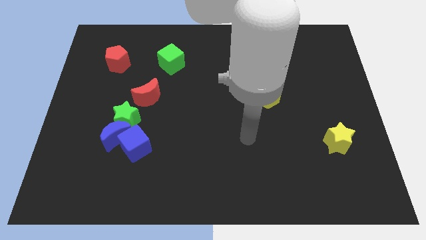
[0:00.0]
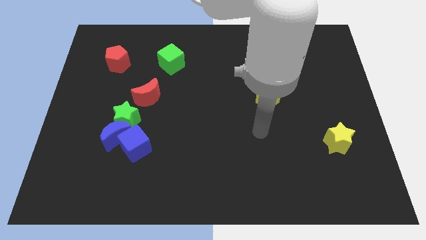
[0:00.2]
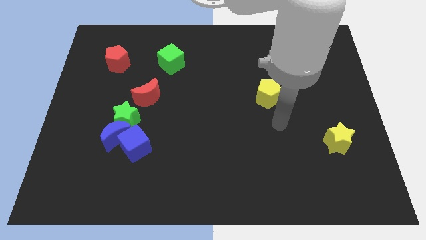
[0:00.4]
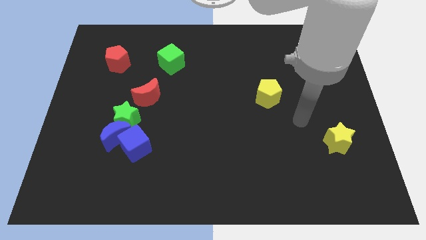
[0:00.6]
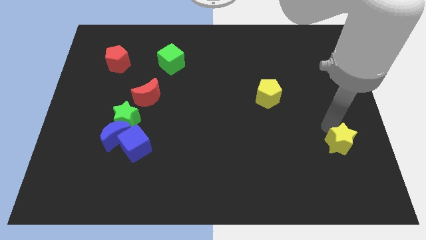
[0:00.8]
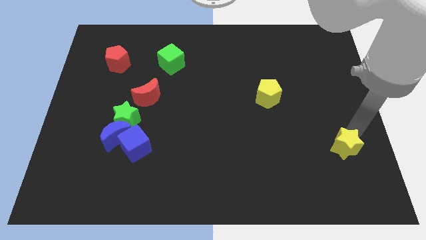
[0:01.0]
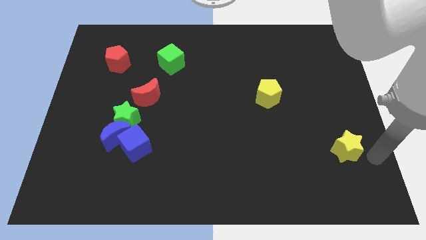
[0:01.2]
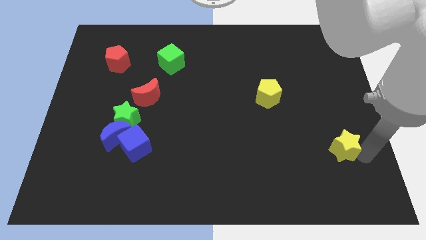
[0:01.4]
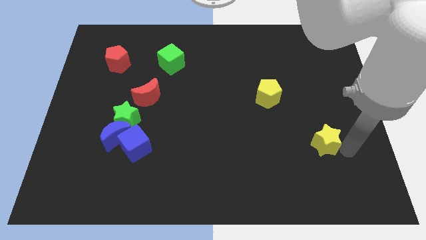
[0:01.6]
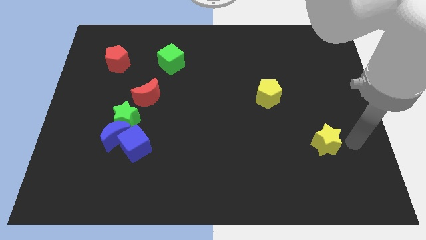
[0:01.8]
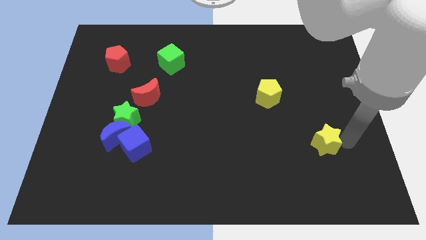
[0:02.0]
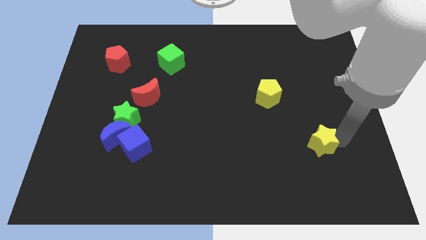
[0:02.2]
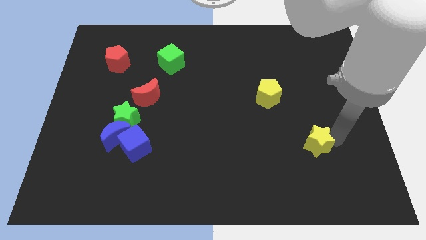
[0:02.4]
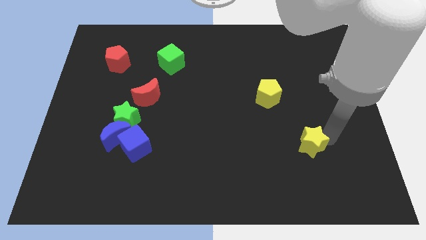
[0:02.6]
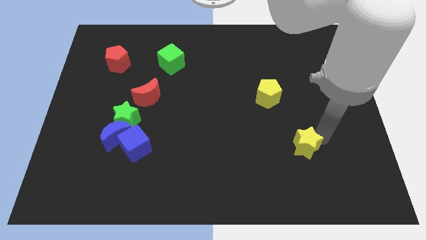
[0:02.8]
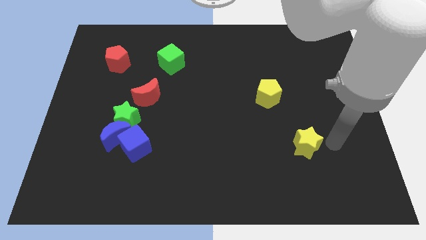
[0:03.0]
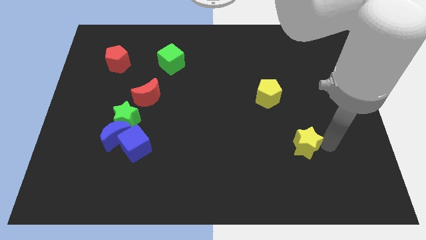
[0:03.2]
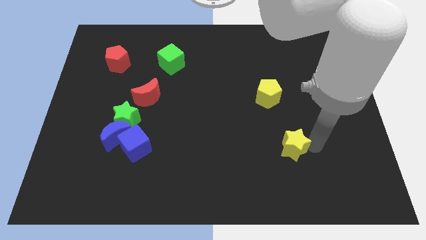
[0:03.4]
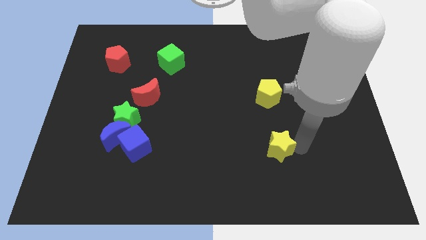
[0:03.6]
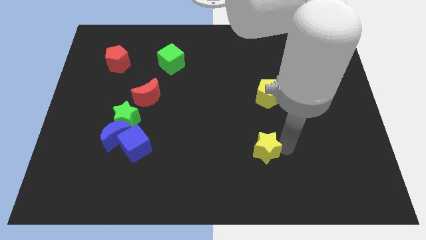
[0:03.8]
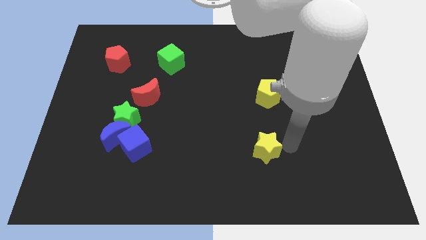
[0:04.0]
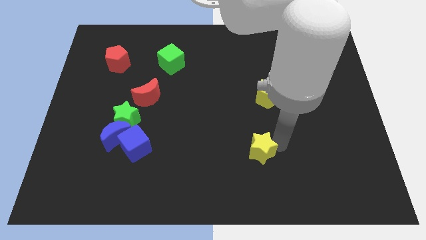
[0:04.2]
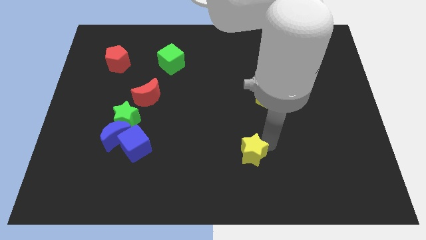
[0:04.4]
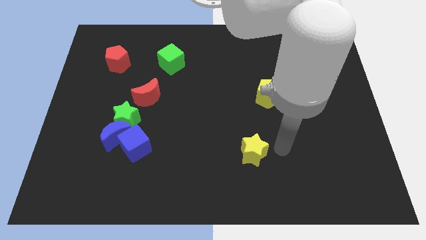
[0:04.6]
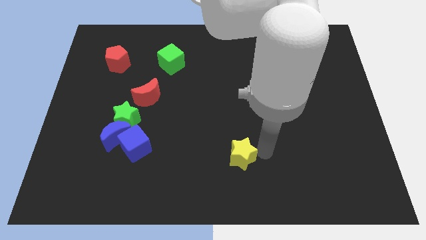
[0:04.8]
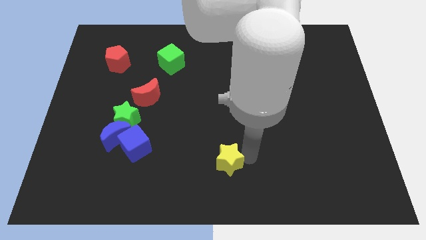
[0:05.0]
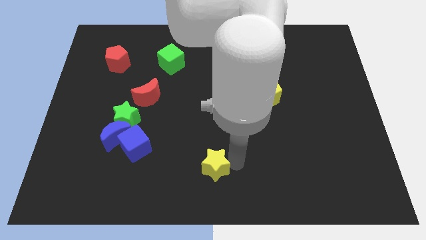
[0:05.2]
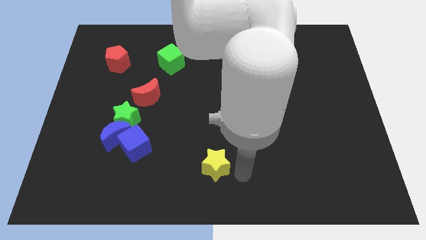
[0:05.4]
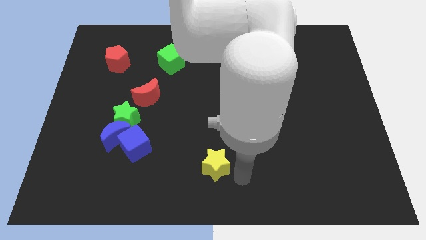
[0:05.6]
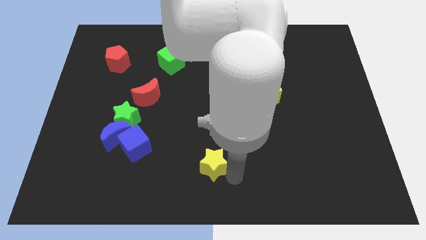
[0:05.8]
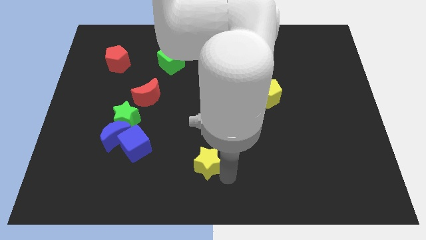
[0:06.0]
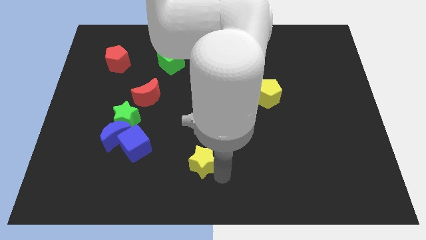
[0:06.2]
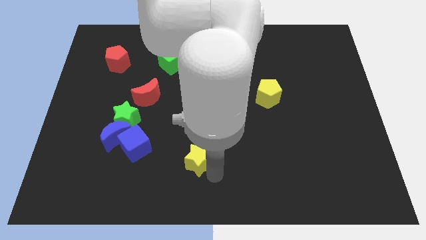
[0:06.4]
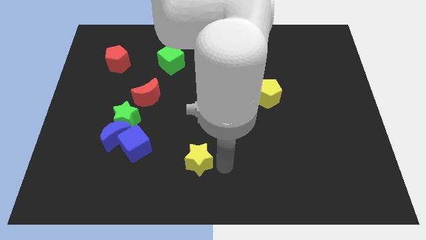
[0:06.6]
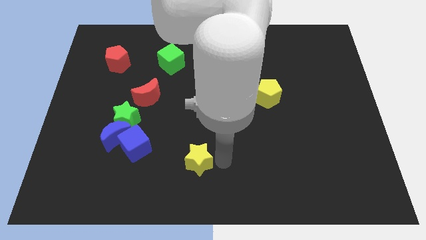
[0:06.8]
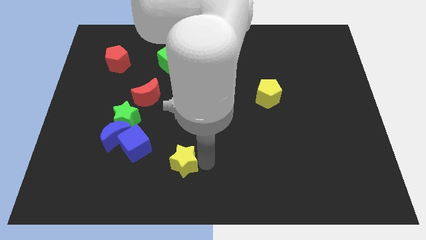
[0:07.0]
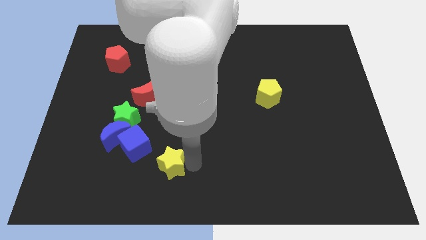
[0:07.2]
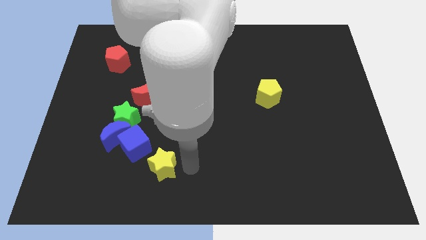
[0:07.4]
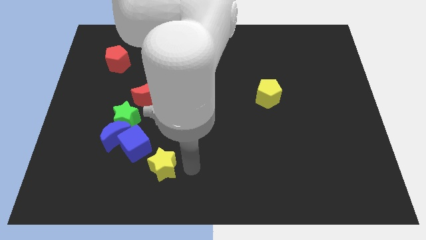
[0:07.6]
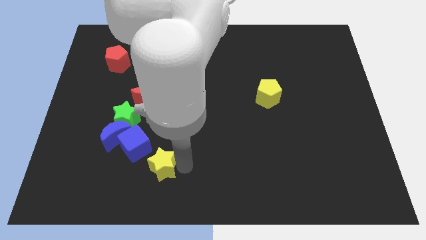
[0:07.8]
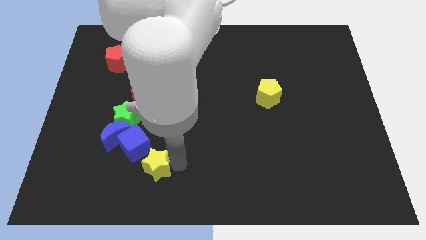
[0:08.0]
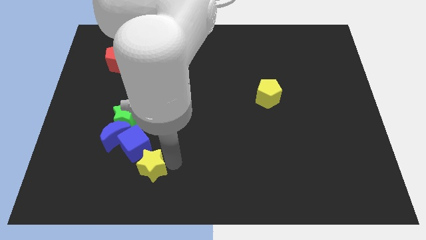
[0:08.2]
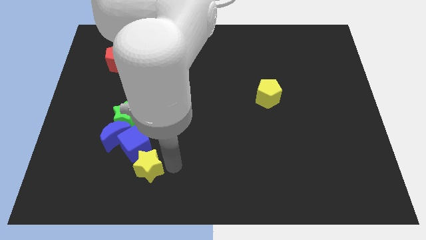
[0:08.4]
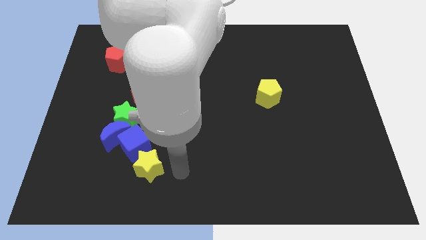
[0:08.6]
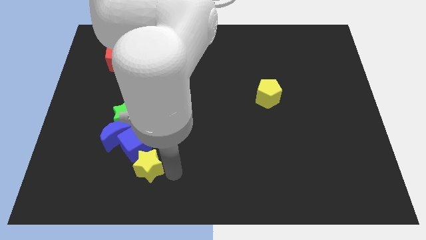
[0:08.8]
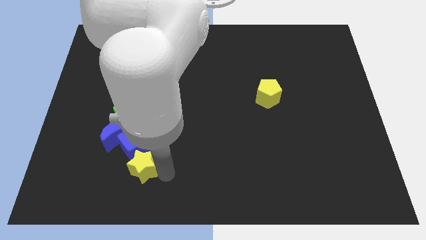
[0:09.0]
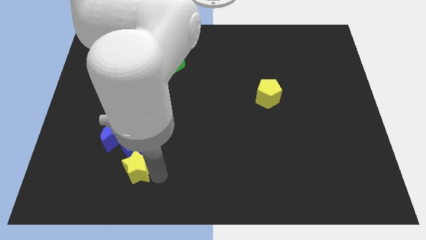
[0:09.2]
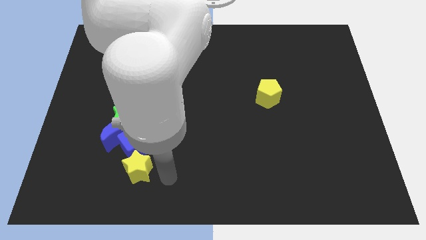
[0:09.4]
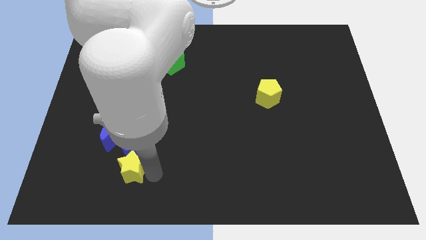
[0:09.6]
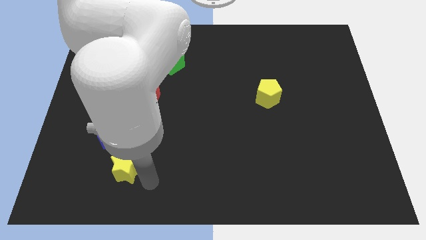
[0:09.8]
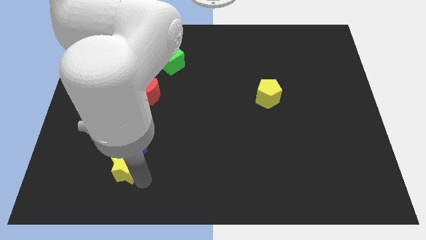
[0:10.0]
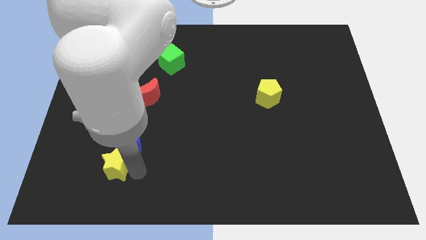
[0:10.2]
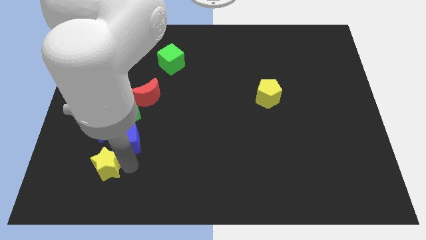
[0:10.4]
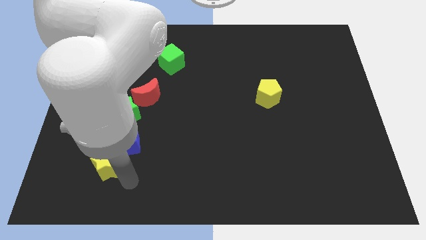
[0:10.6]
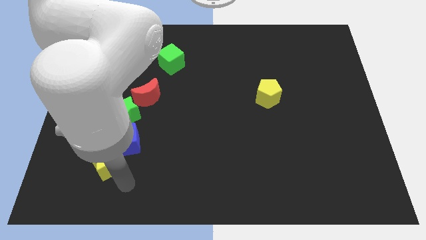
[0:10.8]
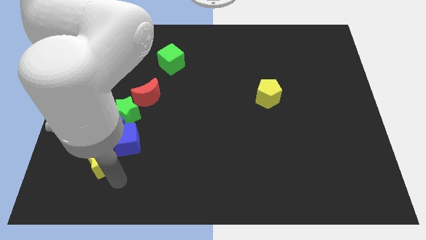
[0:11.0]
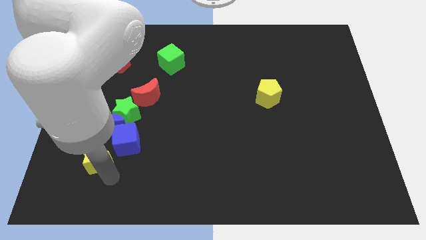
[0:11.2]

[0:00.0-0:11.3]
slide the yellow star just left of the blue cube

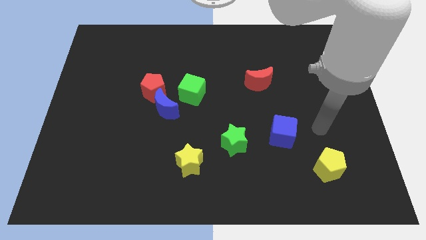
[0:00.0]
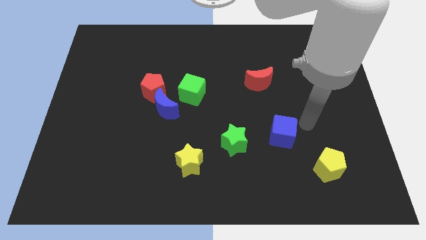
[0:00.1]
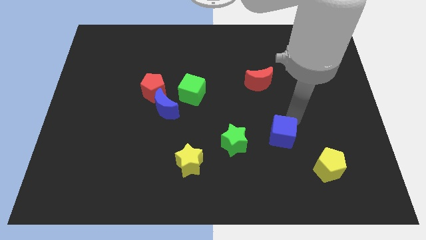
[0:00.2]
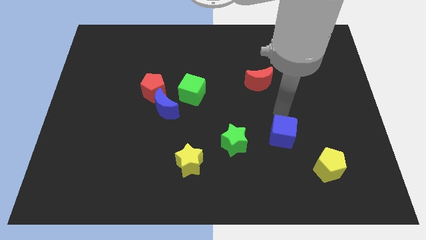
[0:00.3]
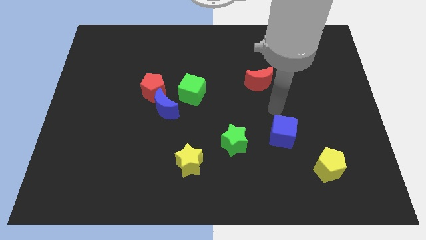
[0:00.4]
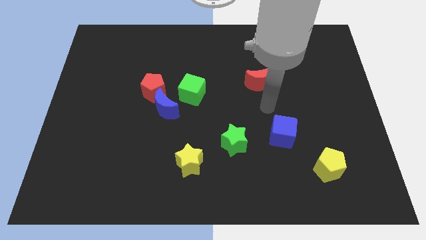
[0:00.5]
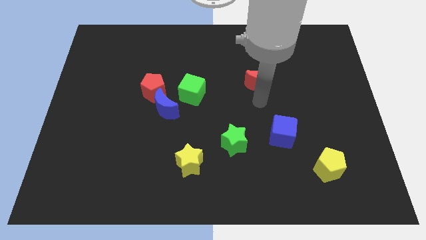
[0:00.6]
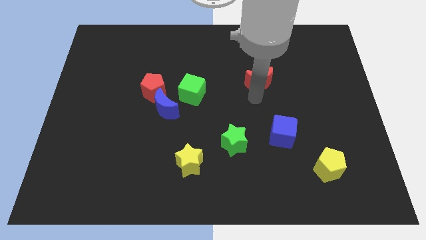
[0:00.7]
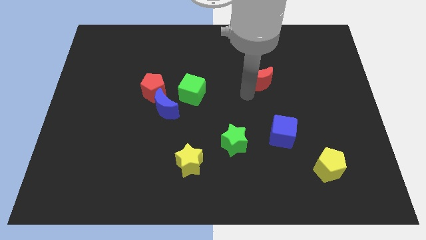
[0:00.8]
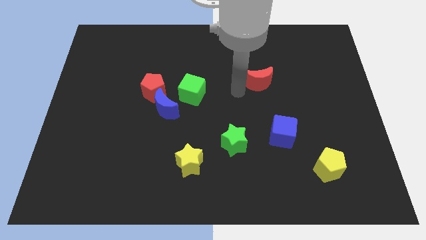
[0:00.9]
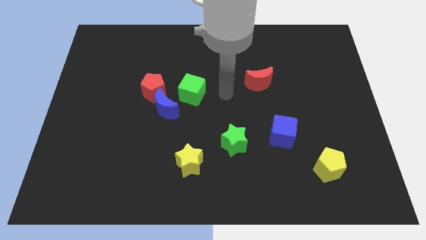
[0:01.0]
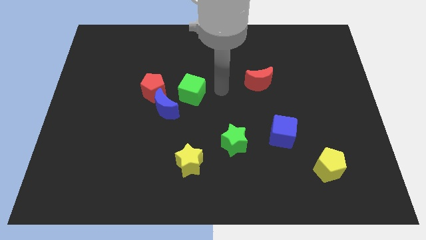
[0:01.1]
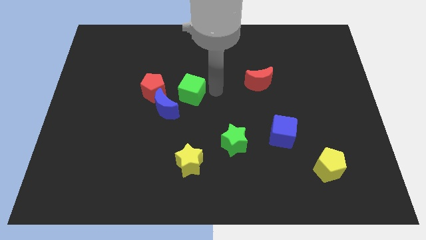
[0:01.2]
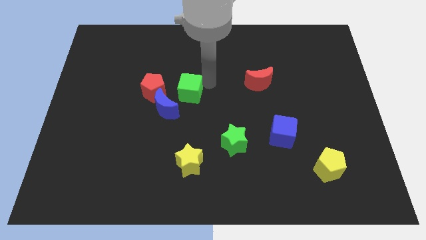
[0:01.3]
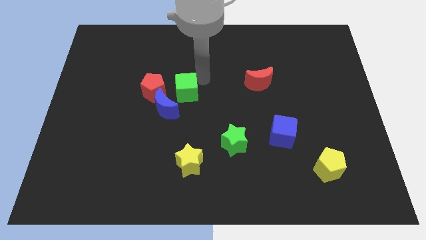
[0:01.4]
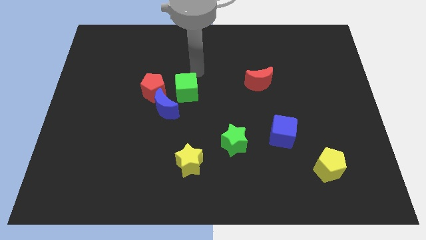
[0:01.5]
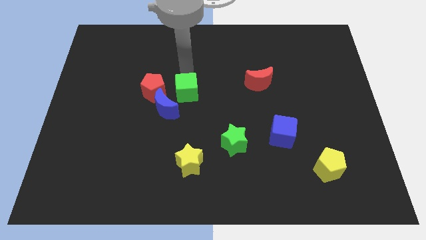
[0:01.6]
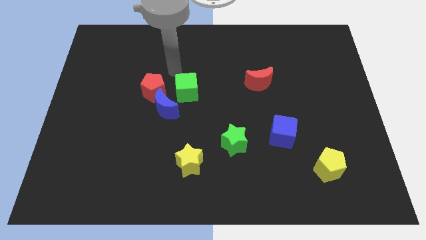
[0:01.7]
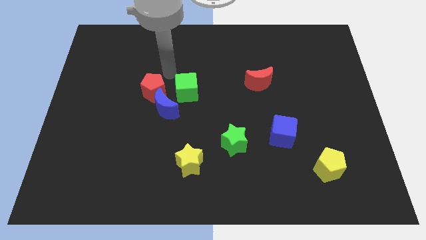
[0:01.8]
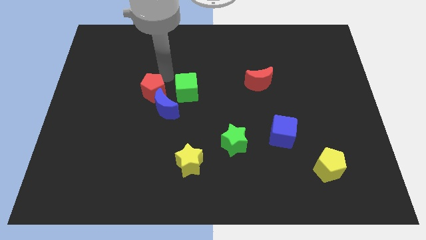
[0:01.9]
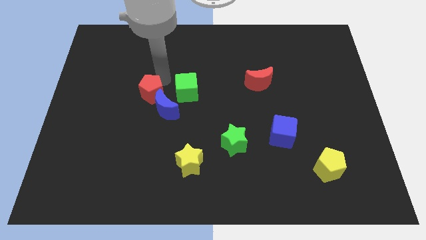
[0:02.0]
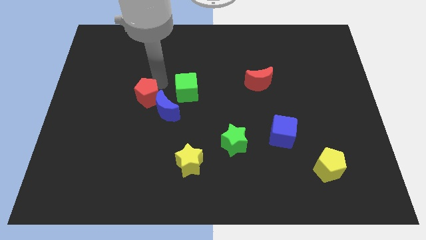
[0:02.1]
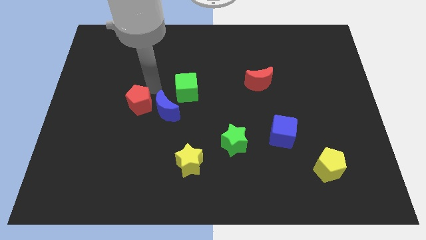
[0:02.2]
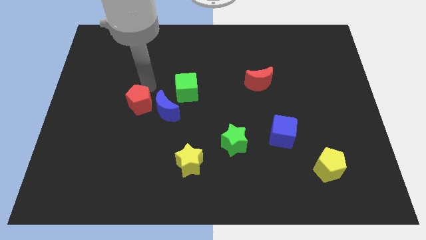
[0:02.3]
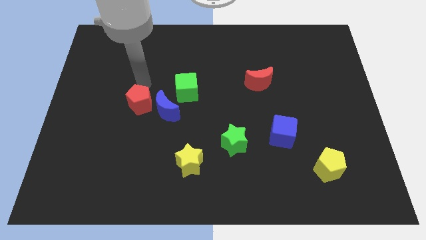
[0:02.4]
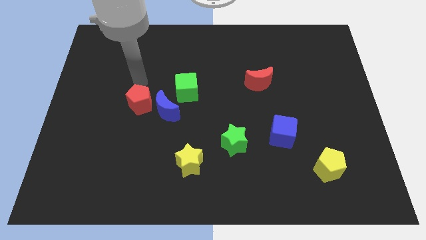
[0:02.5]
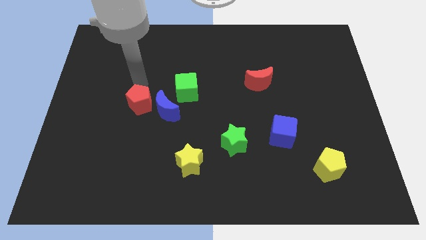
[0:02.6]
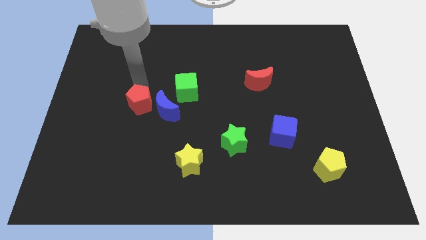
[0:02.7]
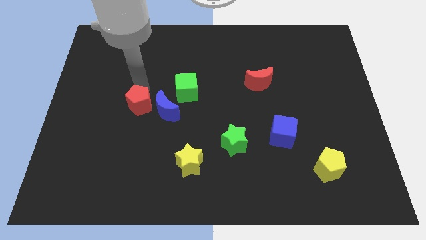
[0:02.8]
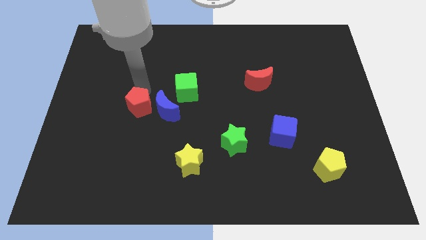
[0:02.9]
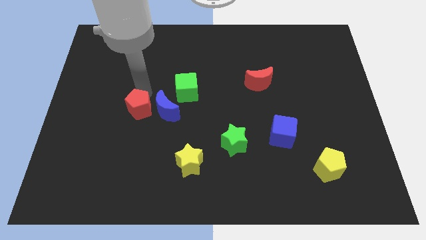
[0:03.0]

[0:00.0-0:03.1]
slide the red pentagon to the bottom left side of the blue moon
